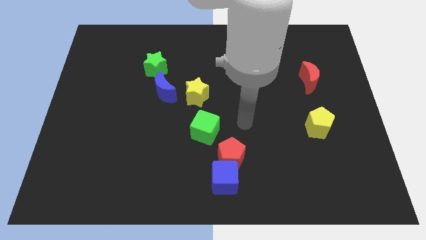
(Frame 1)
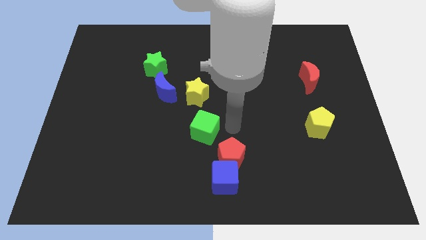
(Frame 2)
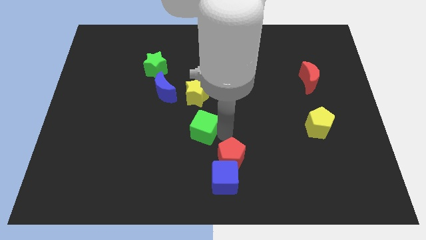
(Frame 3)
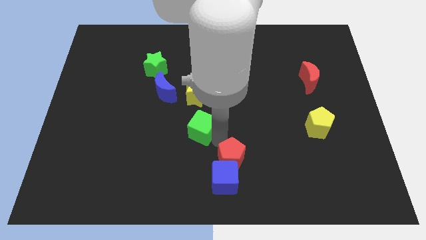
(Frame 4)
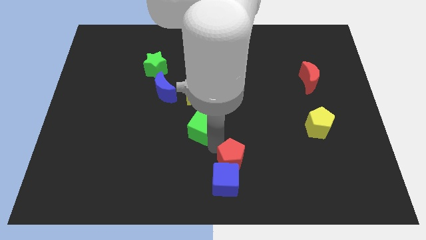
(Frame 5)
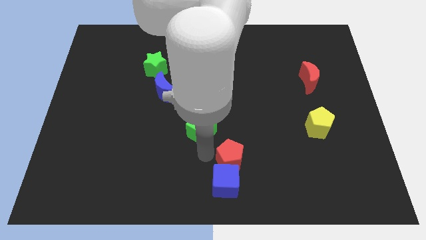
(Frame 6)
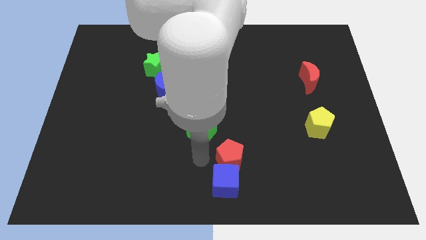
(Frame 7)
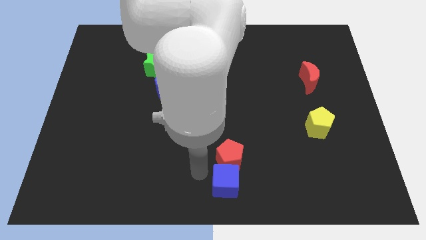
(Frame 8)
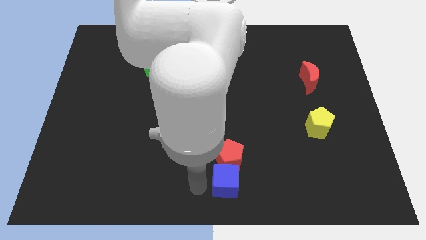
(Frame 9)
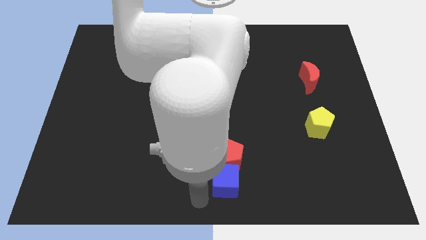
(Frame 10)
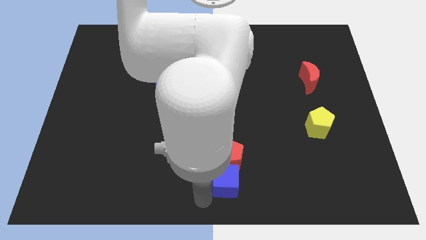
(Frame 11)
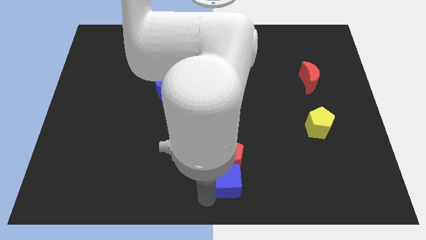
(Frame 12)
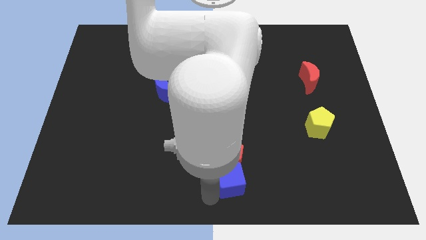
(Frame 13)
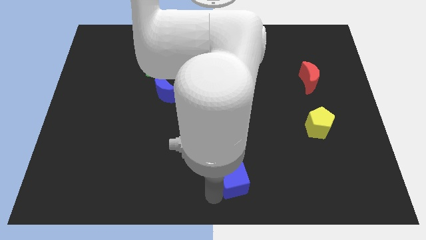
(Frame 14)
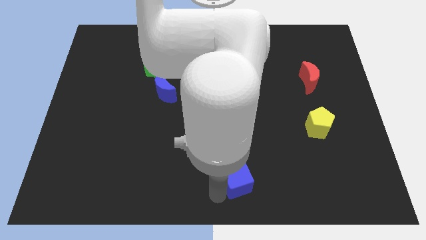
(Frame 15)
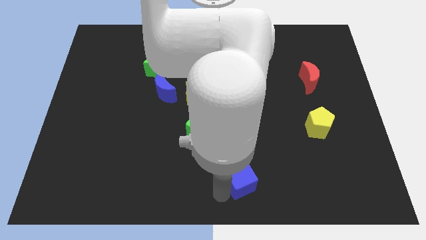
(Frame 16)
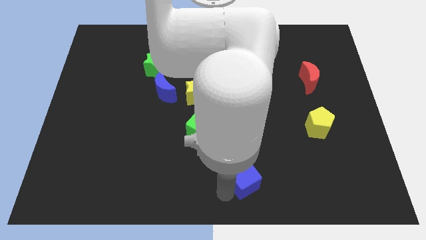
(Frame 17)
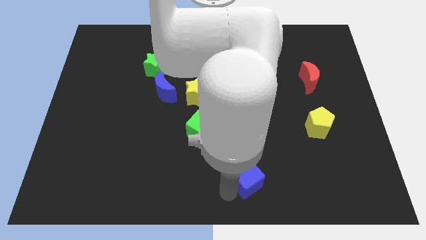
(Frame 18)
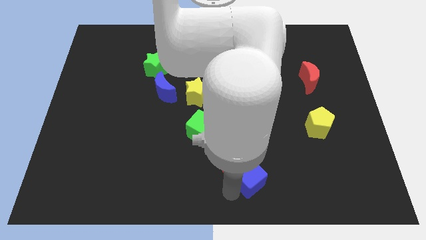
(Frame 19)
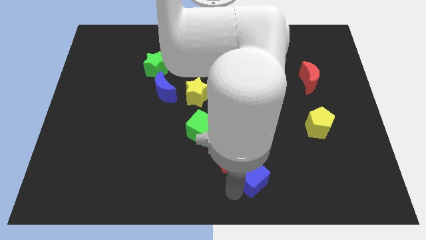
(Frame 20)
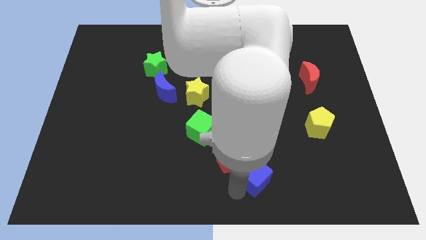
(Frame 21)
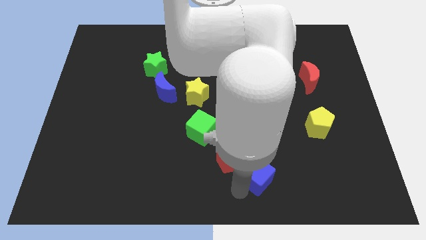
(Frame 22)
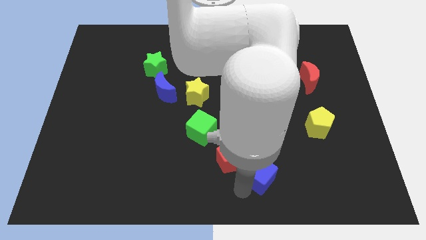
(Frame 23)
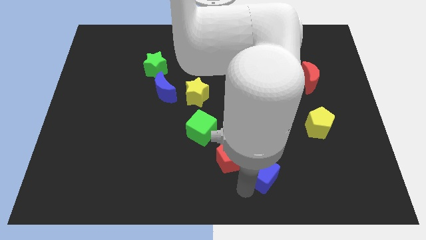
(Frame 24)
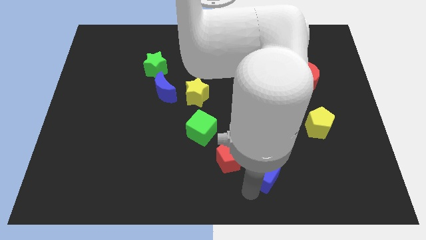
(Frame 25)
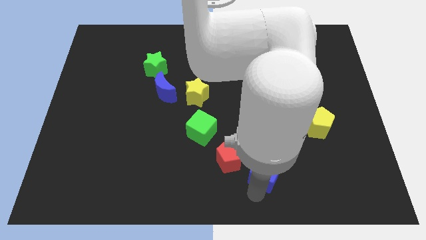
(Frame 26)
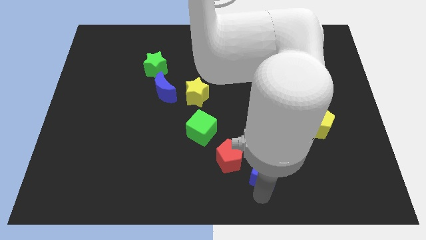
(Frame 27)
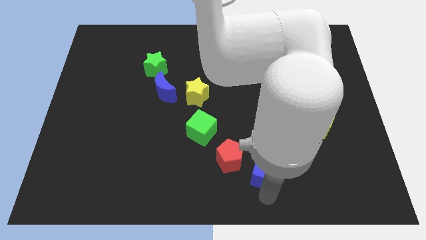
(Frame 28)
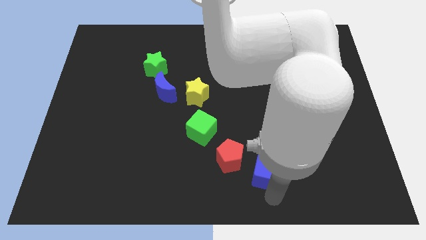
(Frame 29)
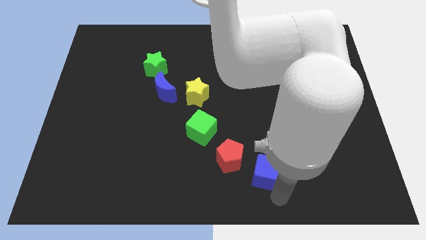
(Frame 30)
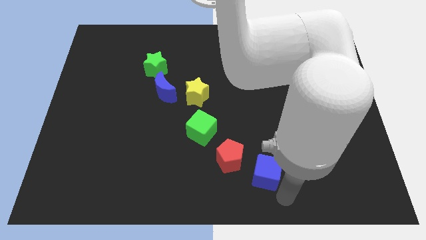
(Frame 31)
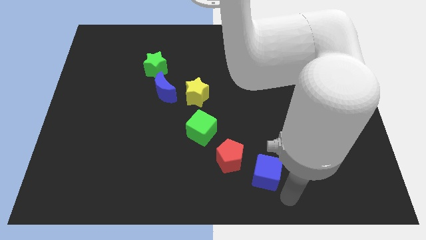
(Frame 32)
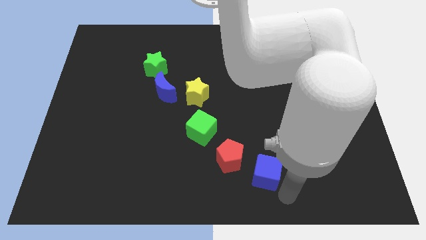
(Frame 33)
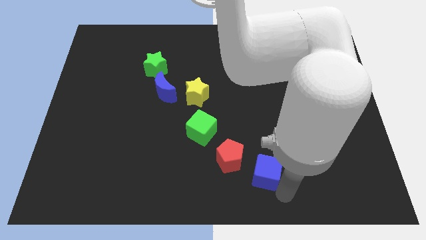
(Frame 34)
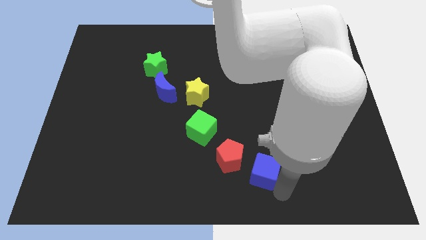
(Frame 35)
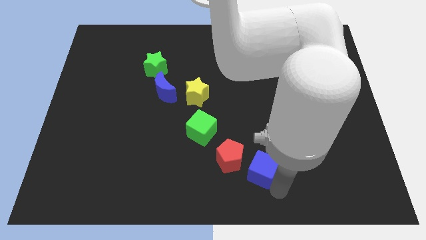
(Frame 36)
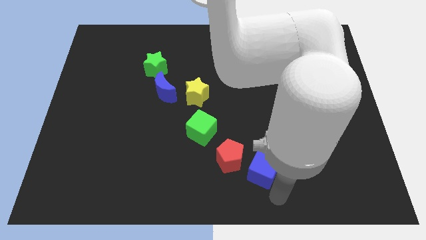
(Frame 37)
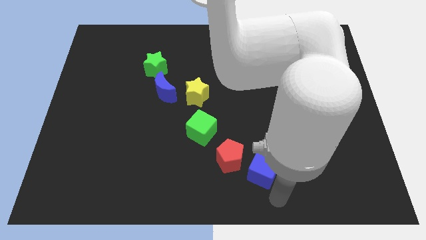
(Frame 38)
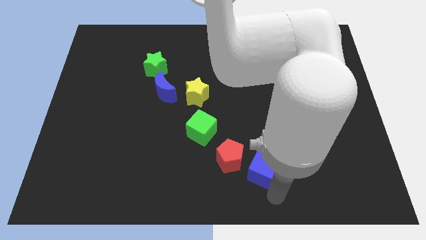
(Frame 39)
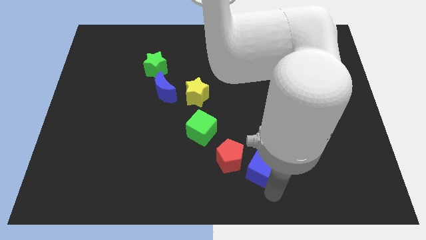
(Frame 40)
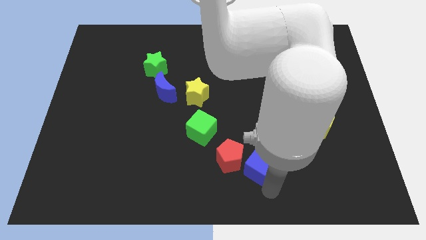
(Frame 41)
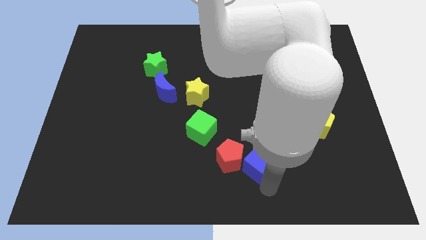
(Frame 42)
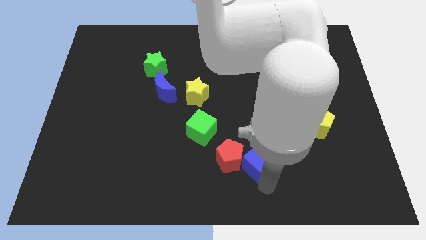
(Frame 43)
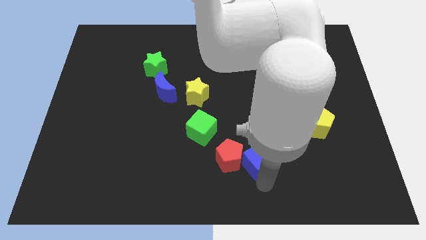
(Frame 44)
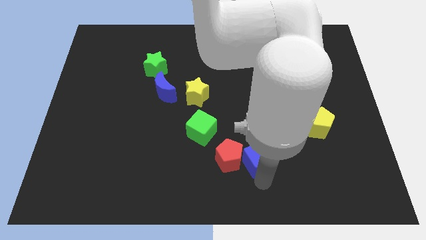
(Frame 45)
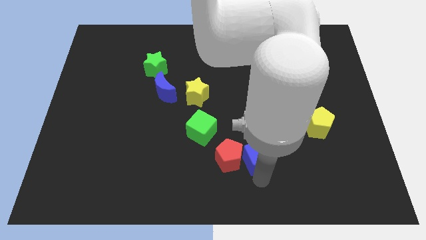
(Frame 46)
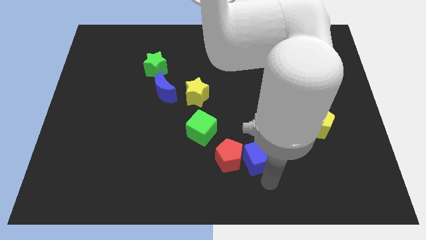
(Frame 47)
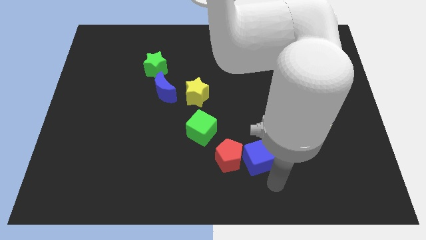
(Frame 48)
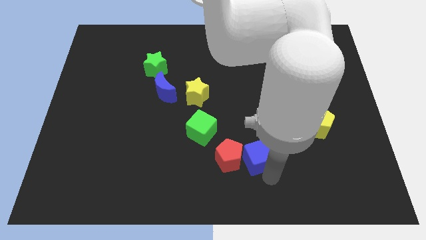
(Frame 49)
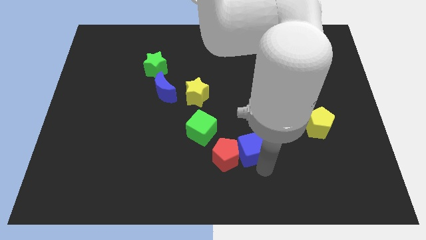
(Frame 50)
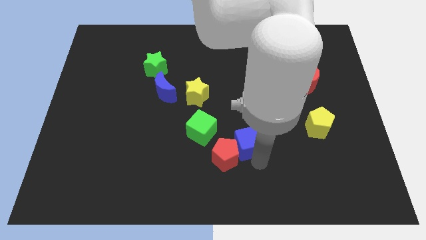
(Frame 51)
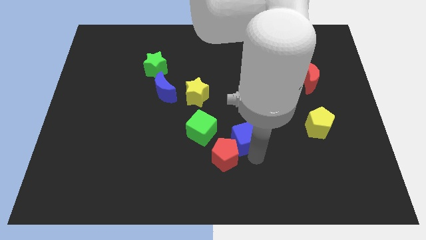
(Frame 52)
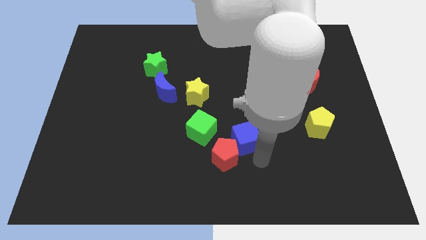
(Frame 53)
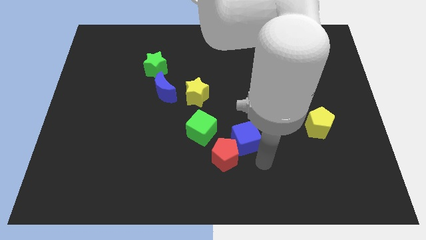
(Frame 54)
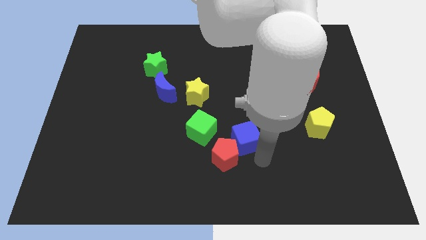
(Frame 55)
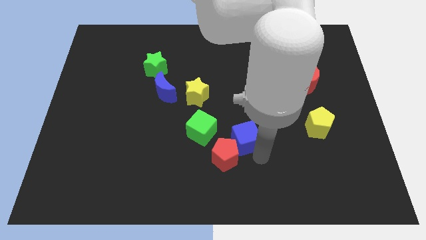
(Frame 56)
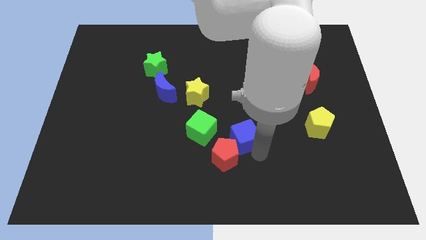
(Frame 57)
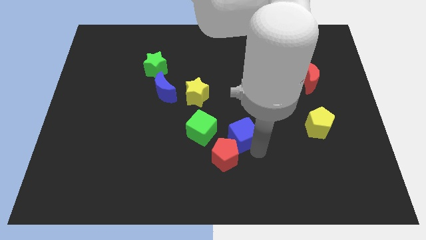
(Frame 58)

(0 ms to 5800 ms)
push the blue cube to the center of the board
